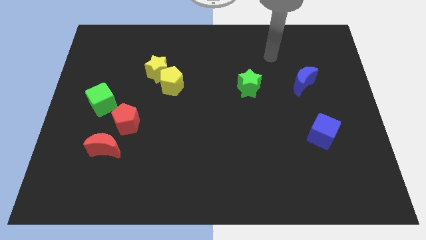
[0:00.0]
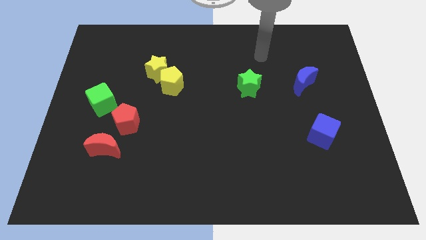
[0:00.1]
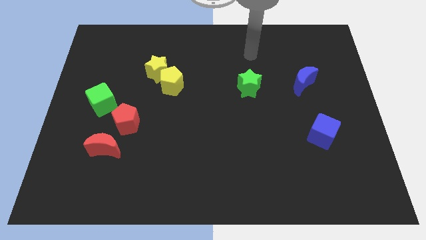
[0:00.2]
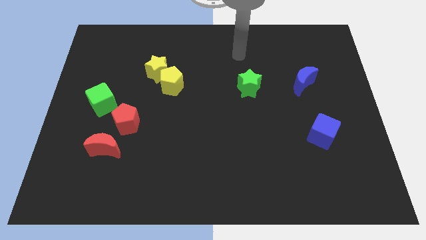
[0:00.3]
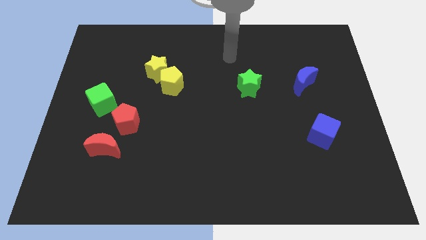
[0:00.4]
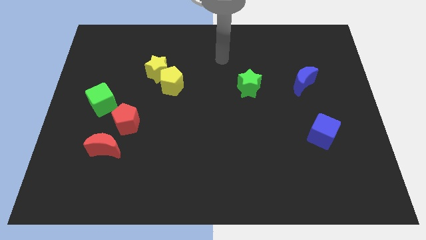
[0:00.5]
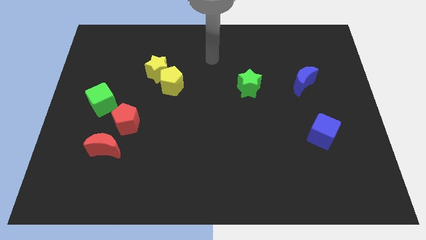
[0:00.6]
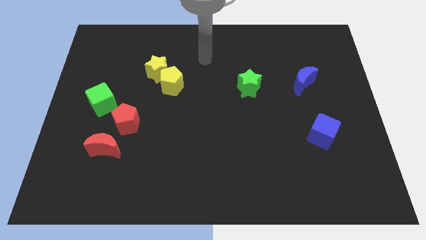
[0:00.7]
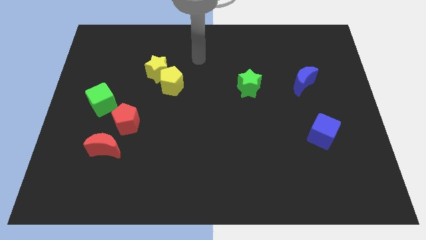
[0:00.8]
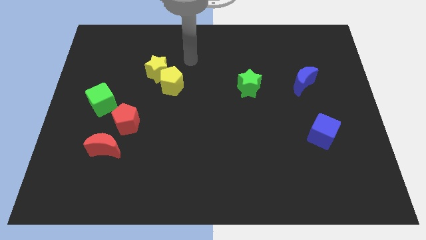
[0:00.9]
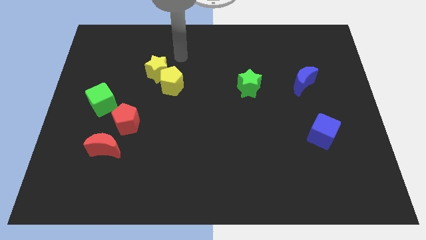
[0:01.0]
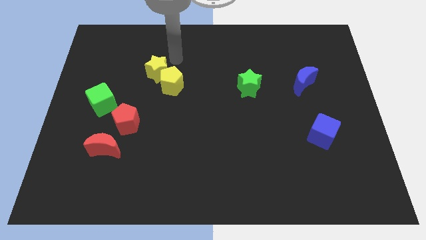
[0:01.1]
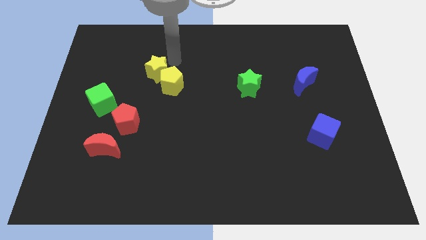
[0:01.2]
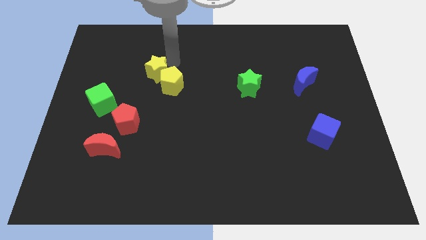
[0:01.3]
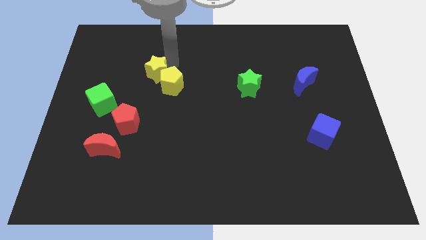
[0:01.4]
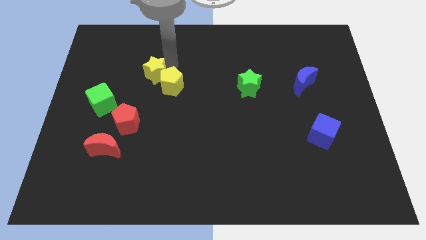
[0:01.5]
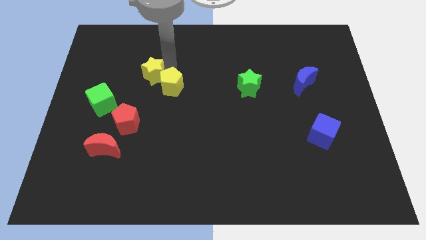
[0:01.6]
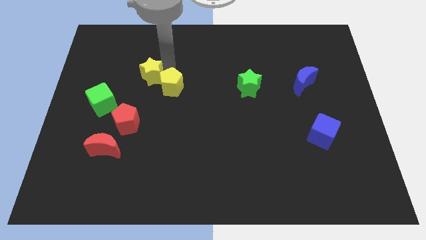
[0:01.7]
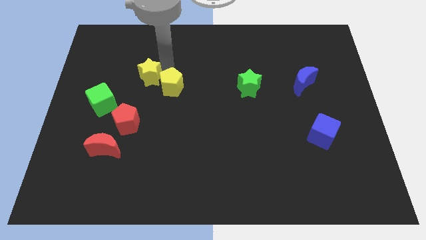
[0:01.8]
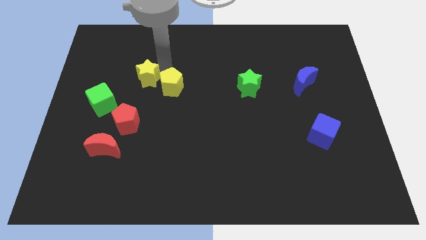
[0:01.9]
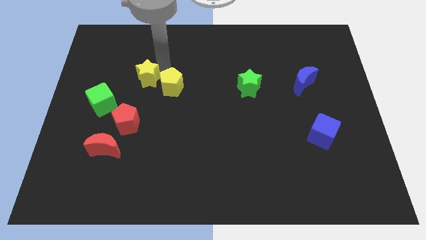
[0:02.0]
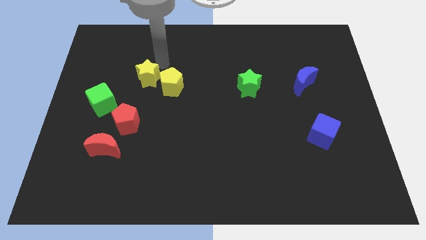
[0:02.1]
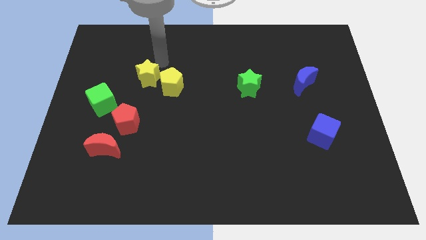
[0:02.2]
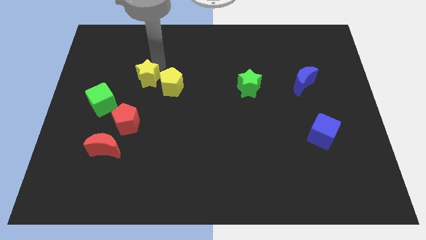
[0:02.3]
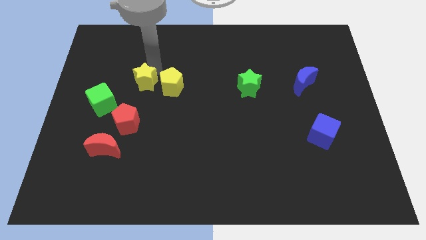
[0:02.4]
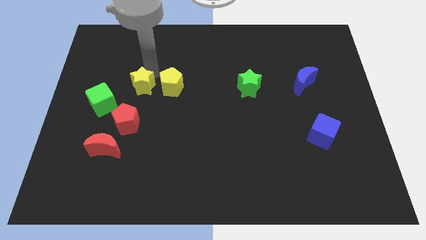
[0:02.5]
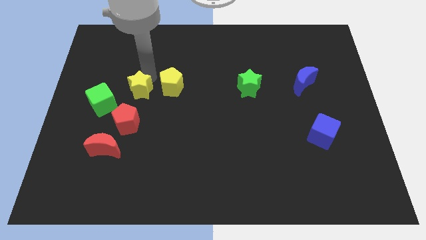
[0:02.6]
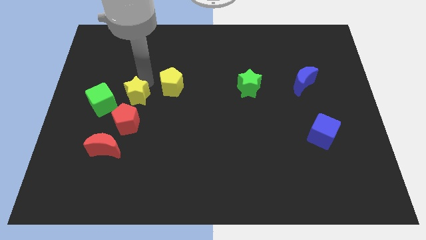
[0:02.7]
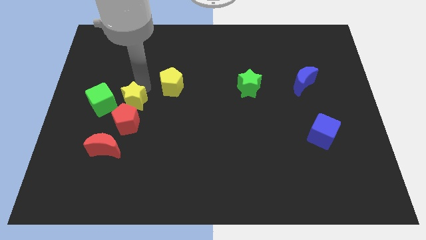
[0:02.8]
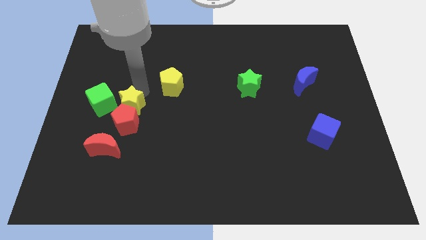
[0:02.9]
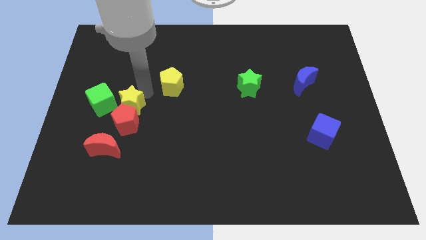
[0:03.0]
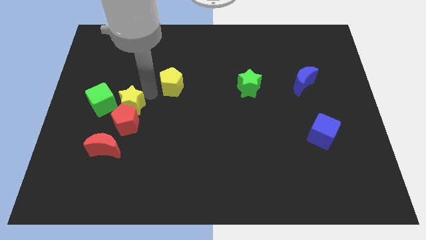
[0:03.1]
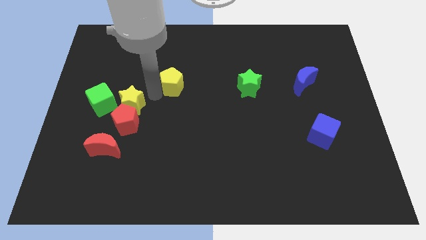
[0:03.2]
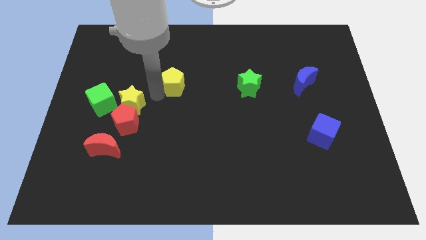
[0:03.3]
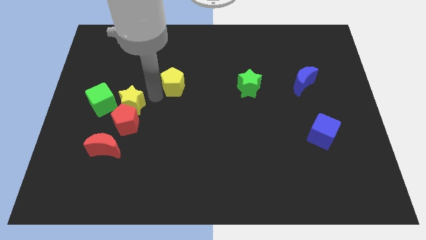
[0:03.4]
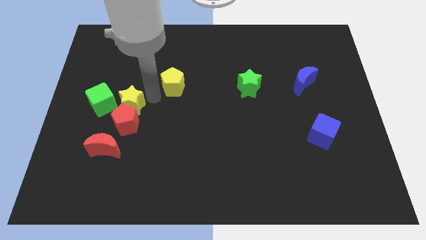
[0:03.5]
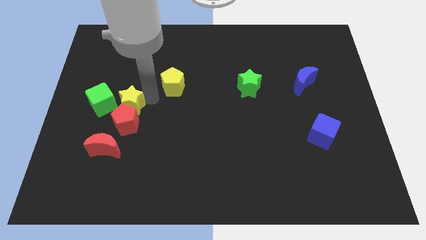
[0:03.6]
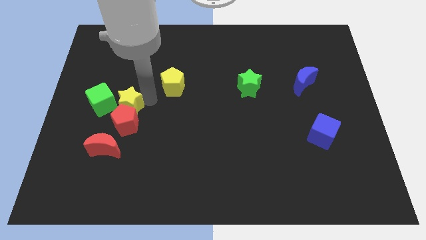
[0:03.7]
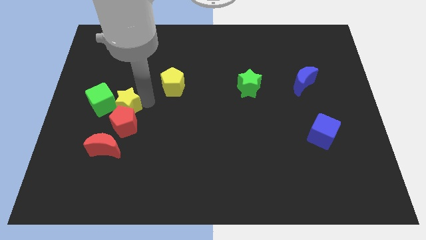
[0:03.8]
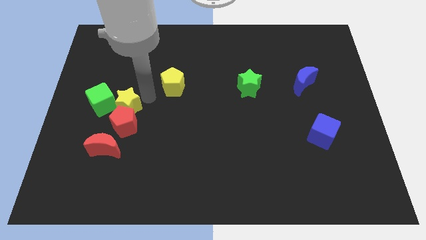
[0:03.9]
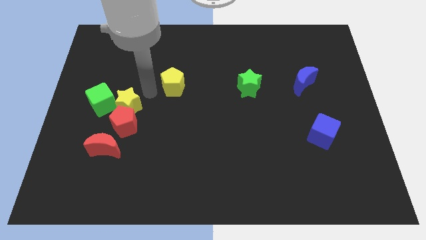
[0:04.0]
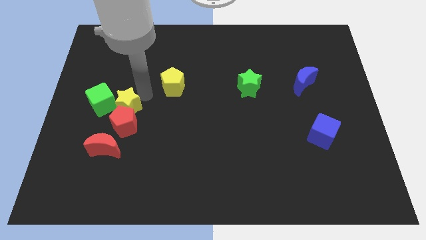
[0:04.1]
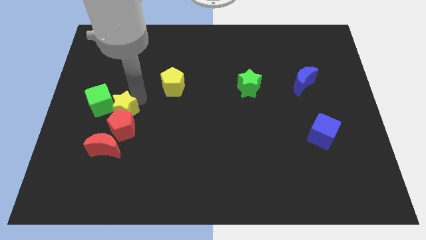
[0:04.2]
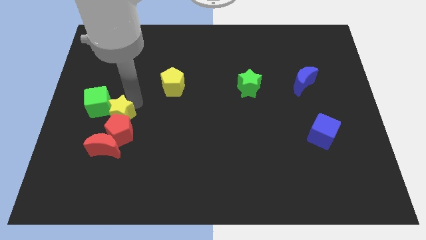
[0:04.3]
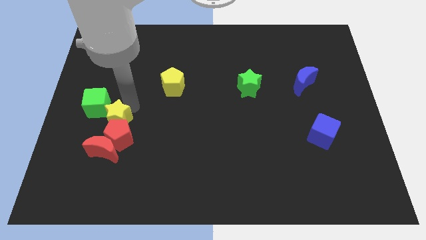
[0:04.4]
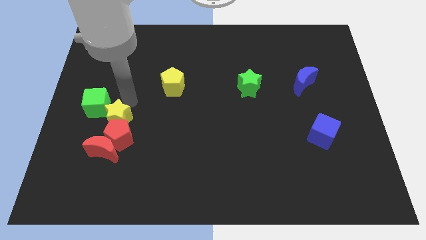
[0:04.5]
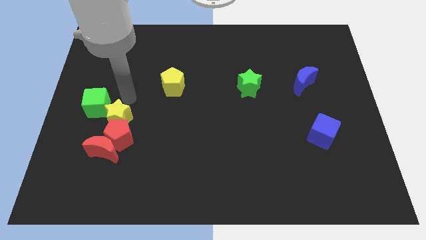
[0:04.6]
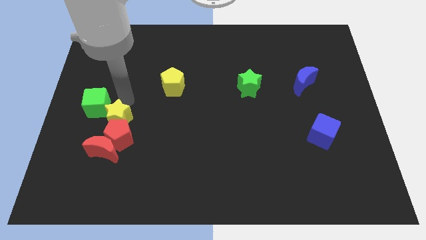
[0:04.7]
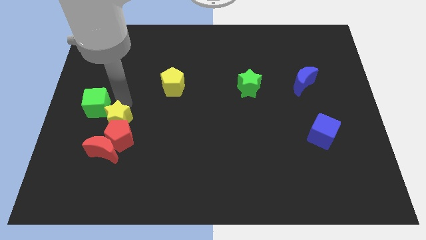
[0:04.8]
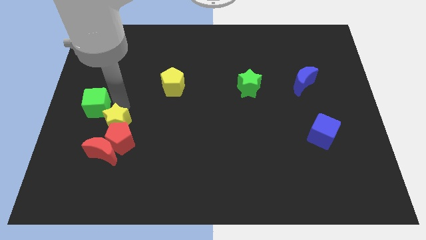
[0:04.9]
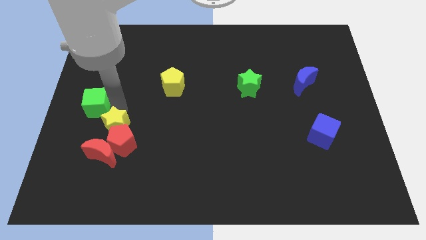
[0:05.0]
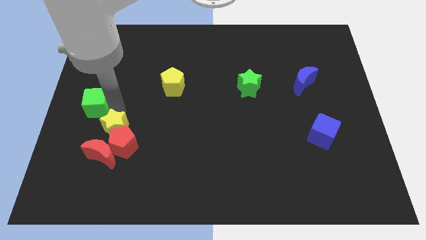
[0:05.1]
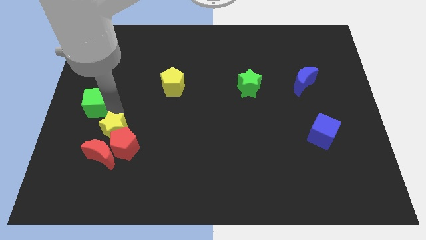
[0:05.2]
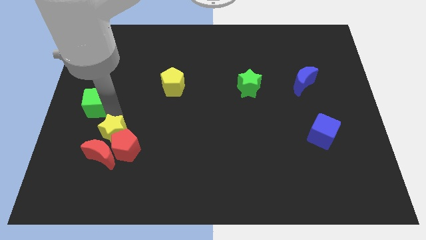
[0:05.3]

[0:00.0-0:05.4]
put the yellow star next to the red moon

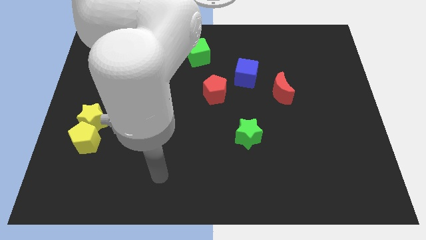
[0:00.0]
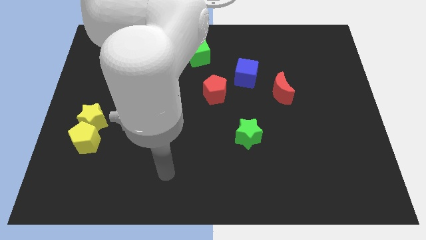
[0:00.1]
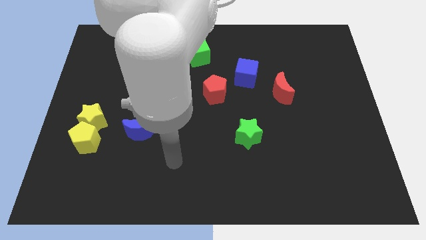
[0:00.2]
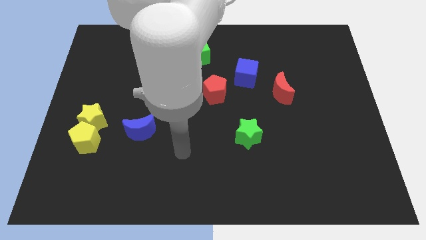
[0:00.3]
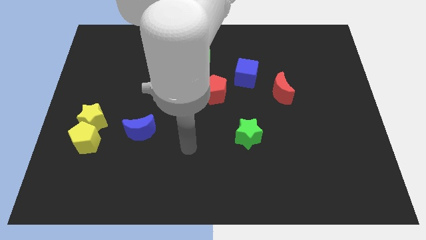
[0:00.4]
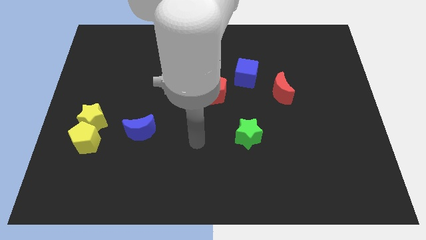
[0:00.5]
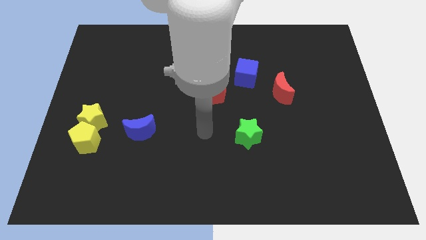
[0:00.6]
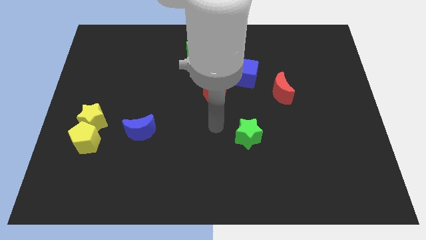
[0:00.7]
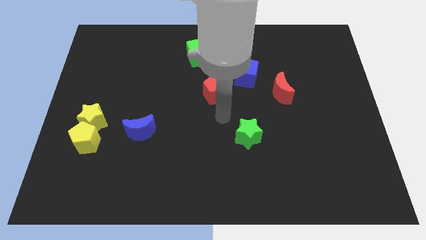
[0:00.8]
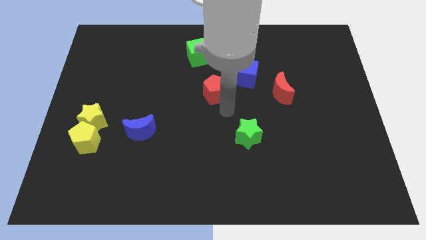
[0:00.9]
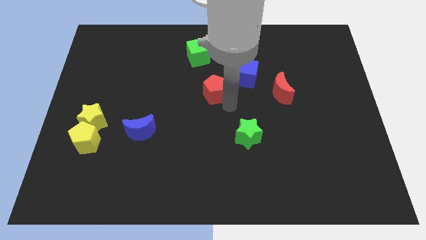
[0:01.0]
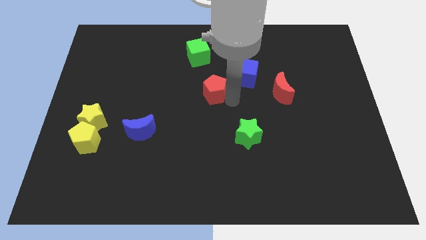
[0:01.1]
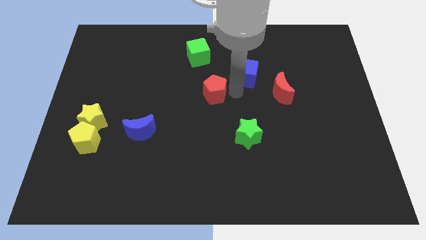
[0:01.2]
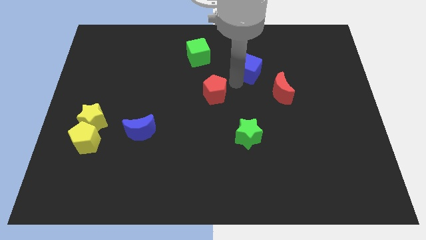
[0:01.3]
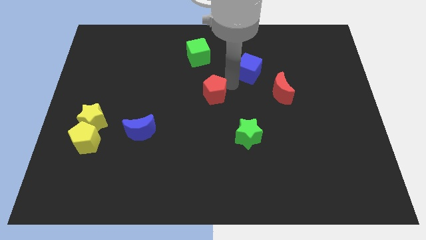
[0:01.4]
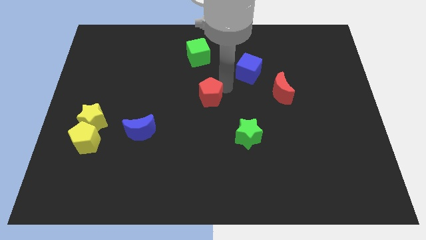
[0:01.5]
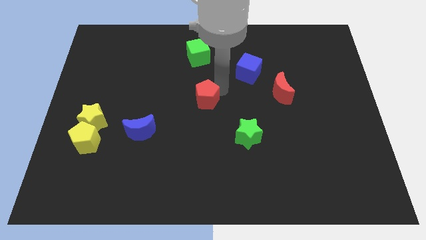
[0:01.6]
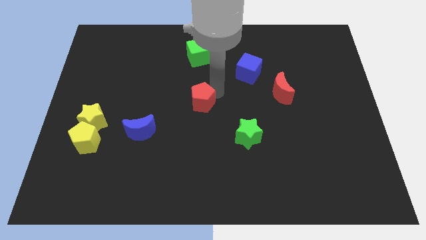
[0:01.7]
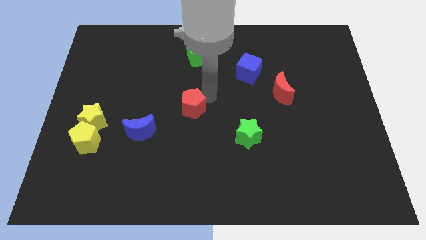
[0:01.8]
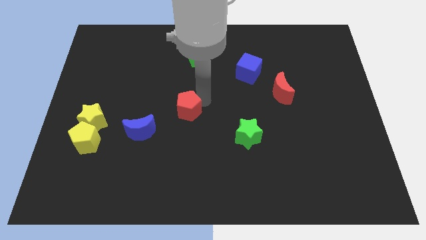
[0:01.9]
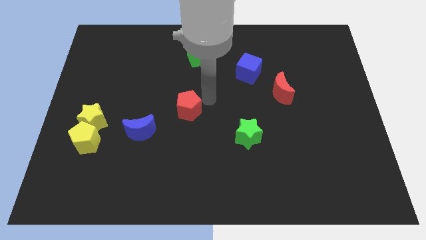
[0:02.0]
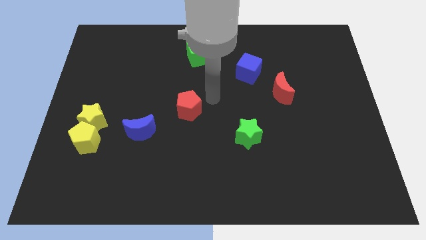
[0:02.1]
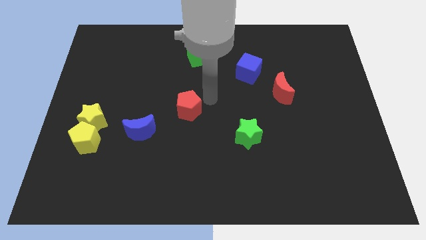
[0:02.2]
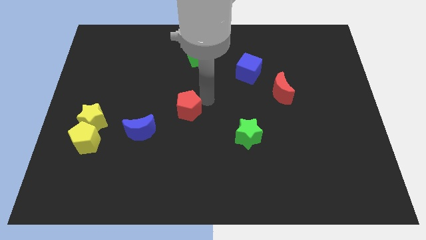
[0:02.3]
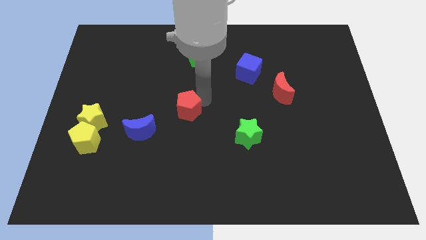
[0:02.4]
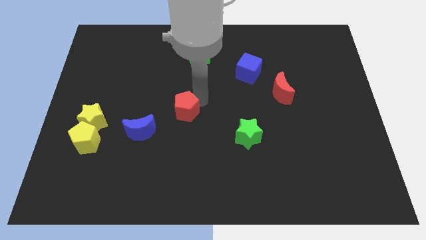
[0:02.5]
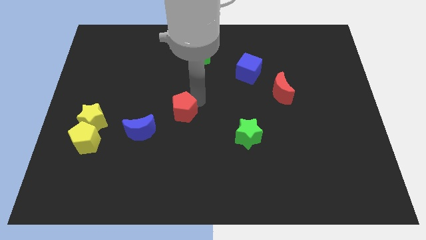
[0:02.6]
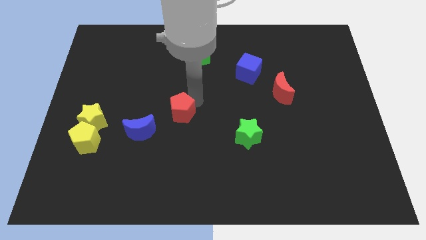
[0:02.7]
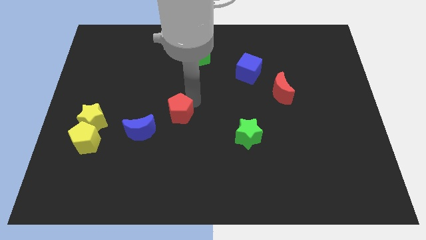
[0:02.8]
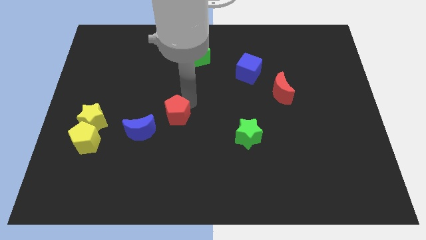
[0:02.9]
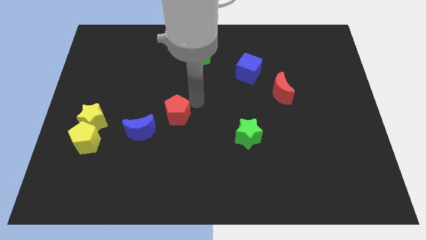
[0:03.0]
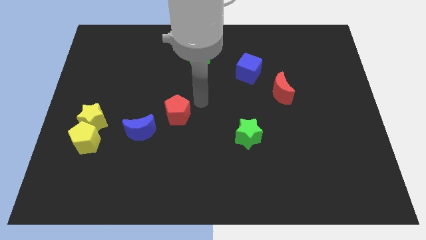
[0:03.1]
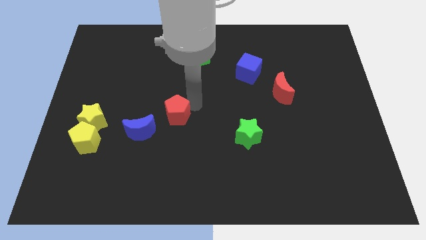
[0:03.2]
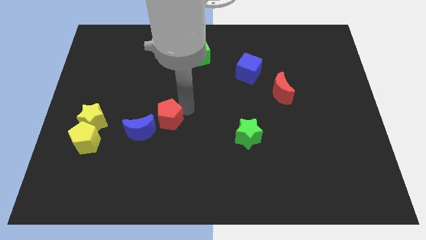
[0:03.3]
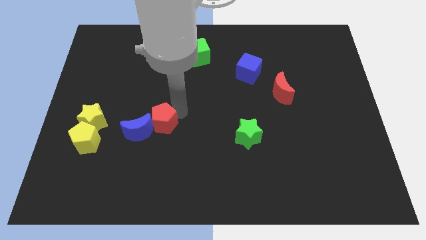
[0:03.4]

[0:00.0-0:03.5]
push the red pentagon next to the blue moon
